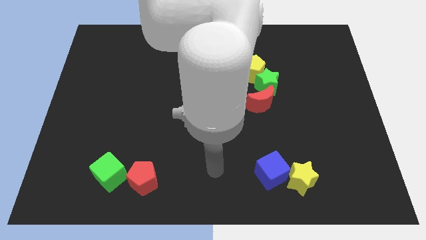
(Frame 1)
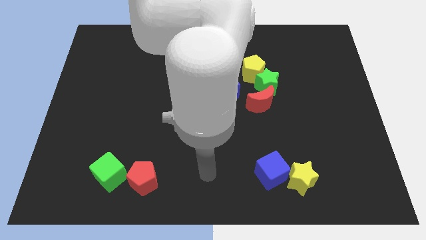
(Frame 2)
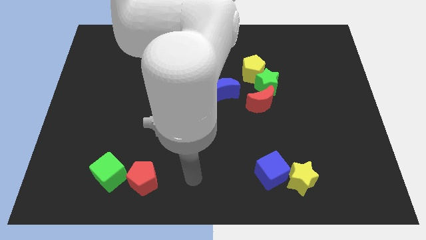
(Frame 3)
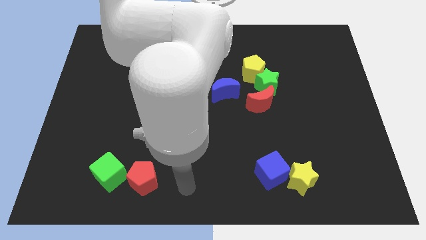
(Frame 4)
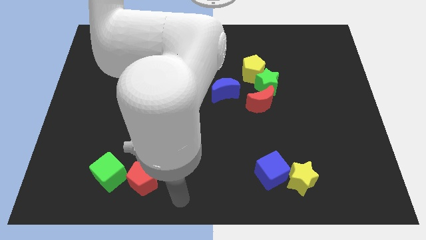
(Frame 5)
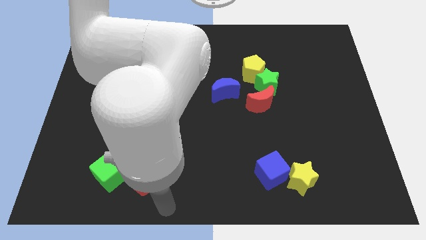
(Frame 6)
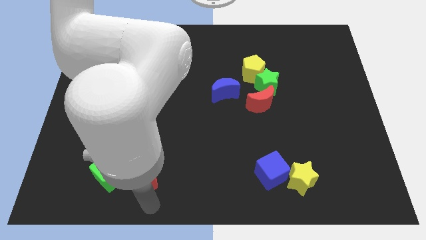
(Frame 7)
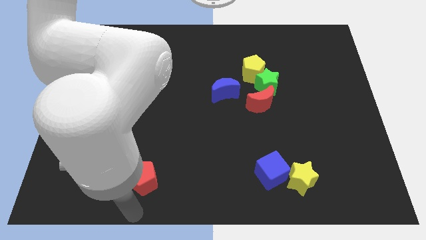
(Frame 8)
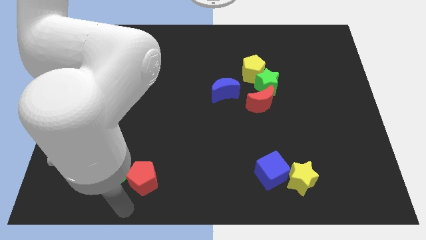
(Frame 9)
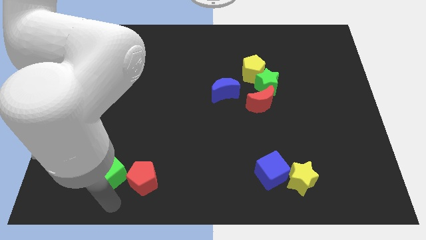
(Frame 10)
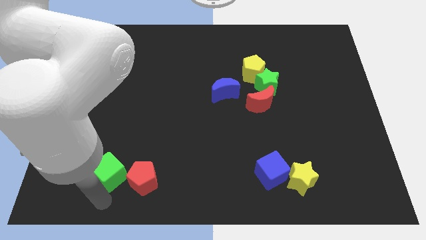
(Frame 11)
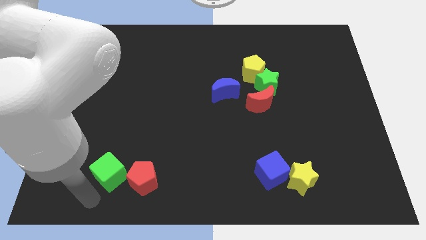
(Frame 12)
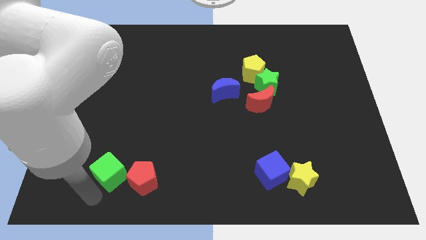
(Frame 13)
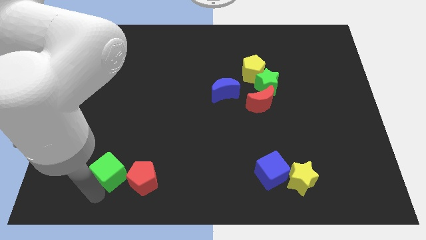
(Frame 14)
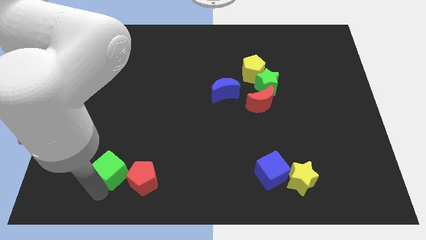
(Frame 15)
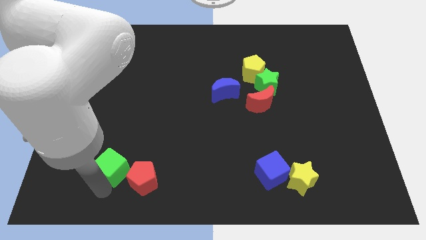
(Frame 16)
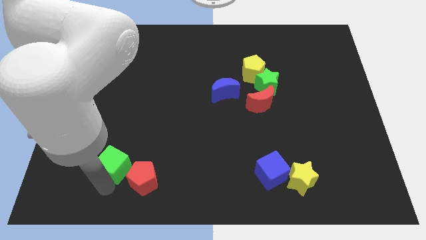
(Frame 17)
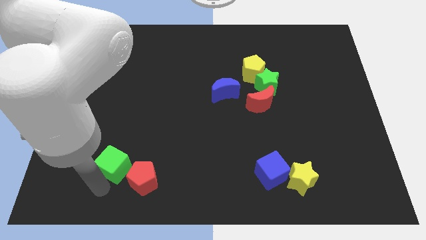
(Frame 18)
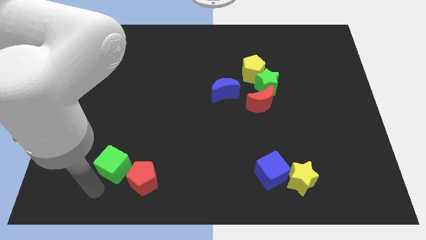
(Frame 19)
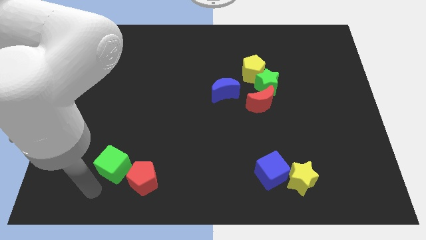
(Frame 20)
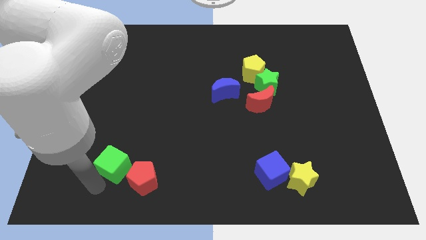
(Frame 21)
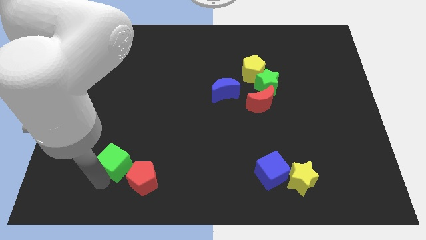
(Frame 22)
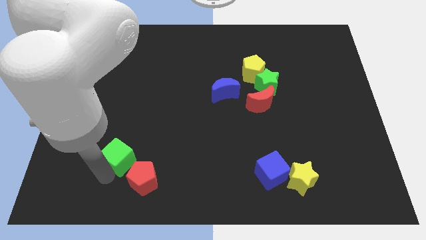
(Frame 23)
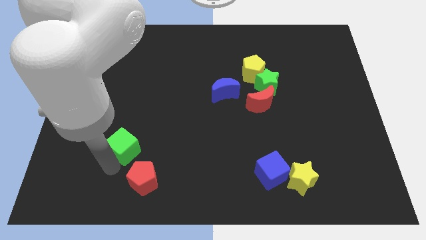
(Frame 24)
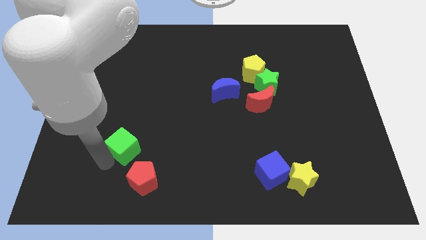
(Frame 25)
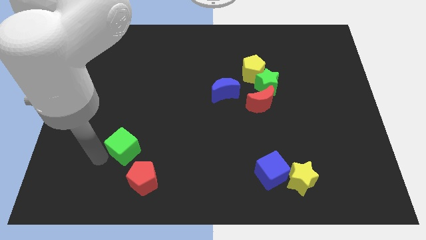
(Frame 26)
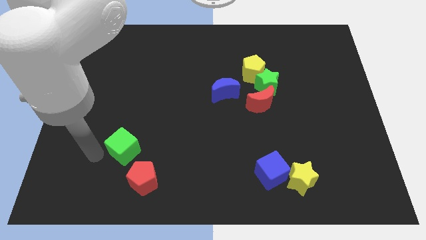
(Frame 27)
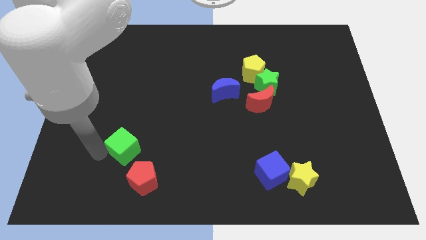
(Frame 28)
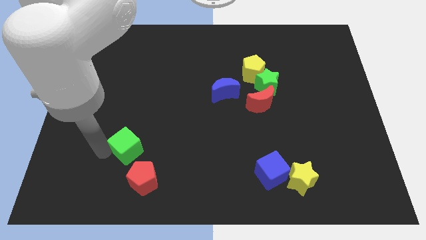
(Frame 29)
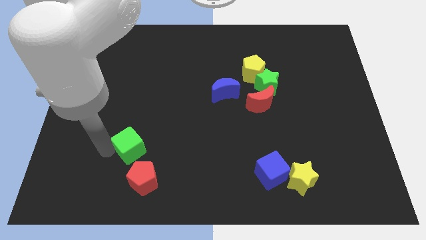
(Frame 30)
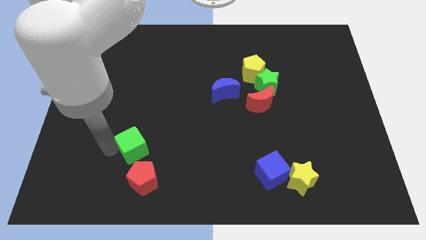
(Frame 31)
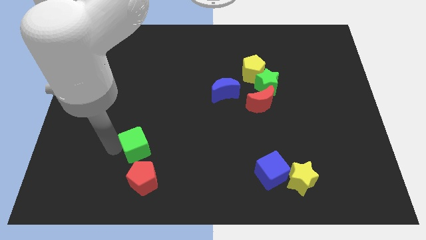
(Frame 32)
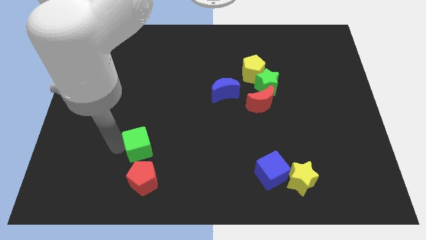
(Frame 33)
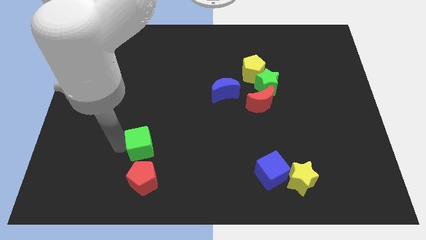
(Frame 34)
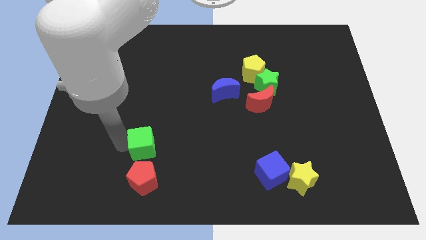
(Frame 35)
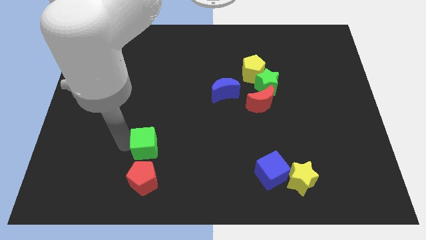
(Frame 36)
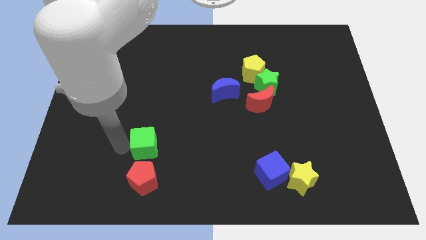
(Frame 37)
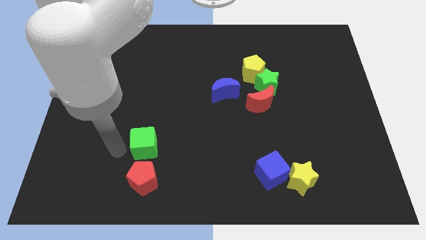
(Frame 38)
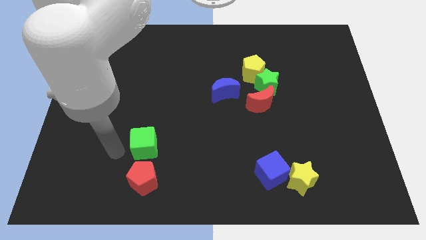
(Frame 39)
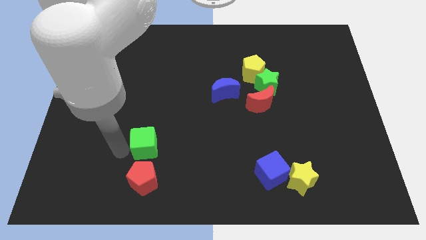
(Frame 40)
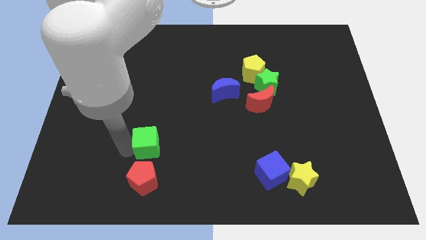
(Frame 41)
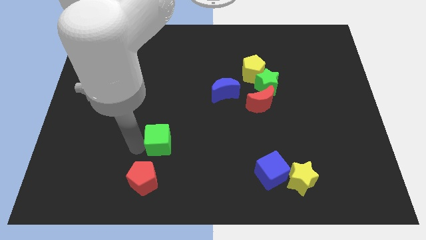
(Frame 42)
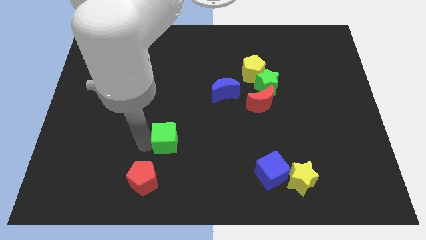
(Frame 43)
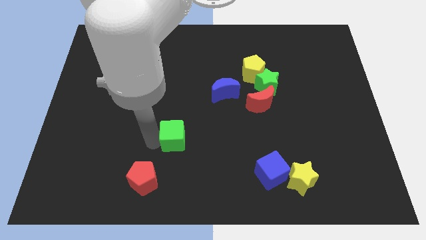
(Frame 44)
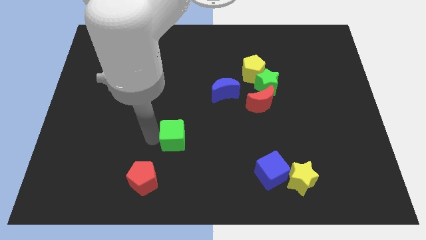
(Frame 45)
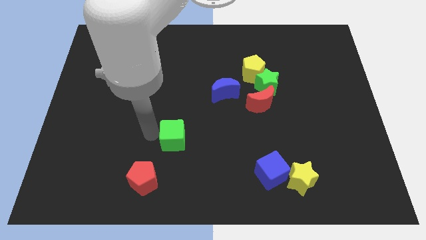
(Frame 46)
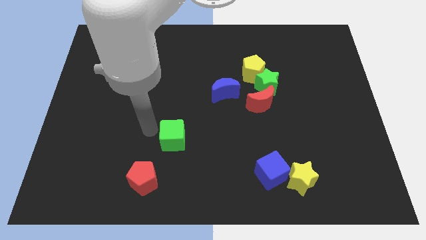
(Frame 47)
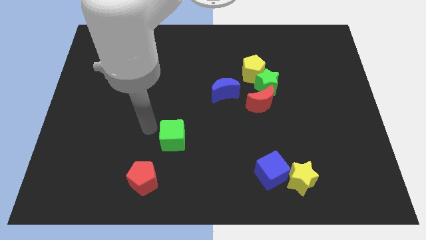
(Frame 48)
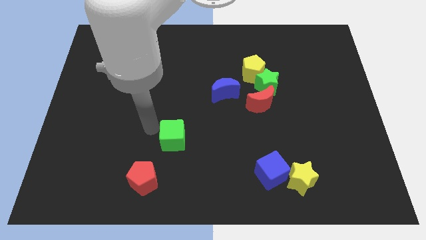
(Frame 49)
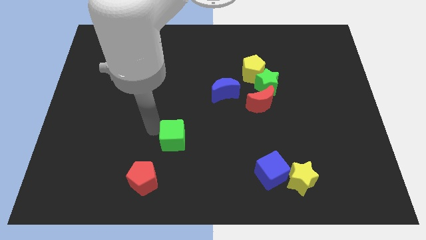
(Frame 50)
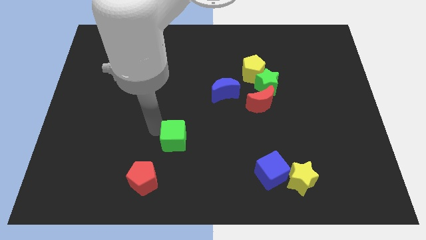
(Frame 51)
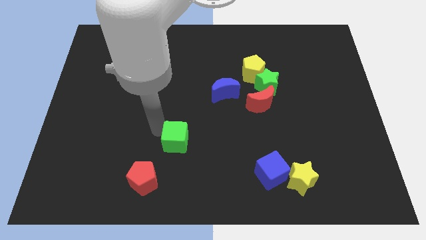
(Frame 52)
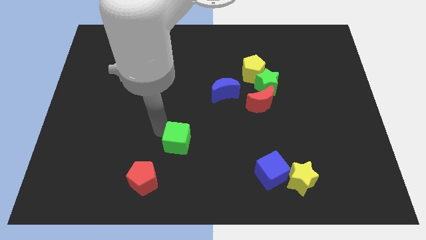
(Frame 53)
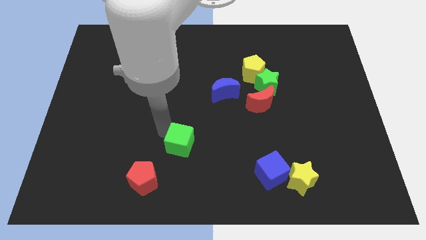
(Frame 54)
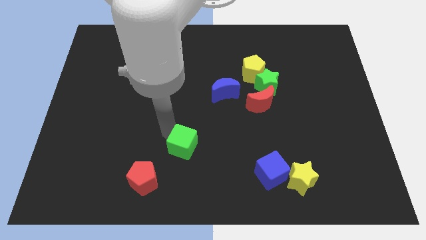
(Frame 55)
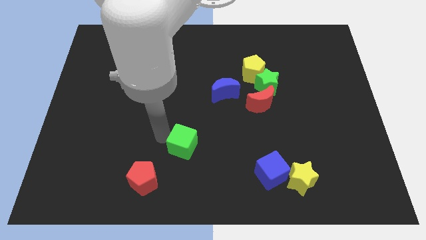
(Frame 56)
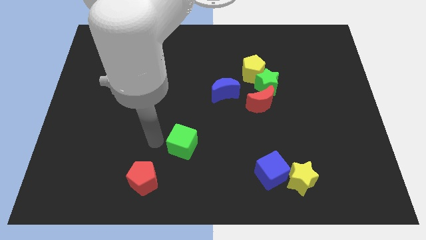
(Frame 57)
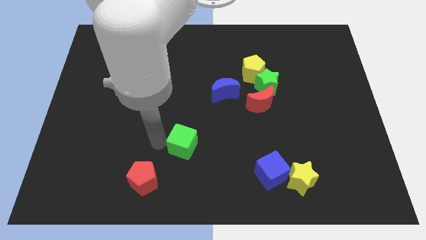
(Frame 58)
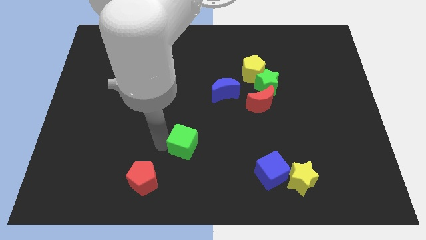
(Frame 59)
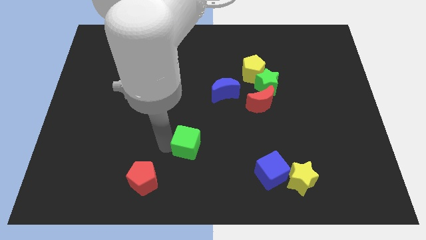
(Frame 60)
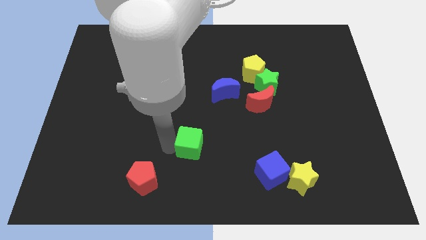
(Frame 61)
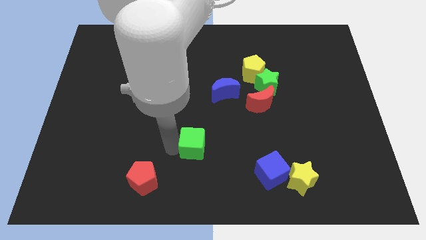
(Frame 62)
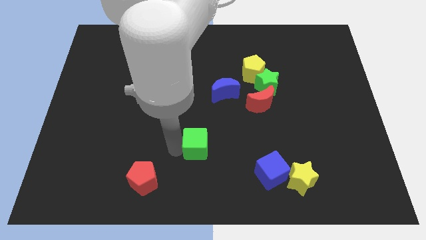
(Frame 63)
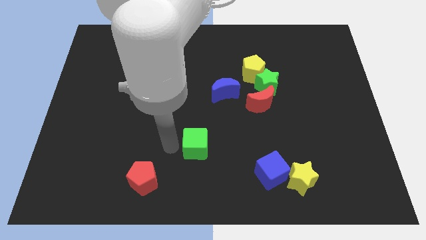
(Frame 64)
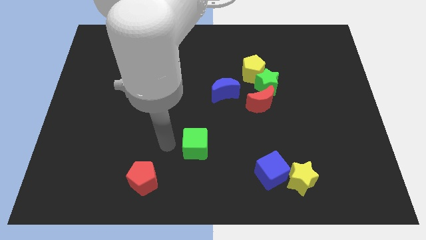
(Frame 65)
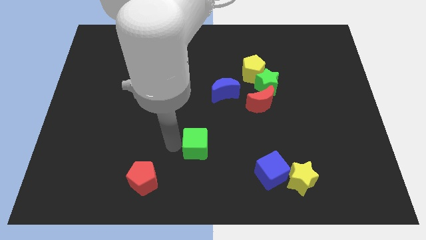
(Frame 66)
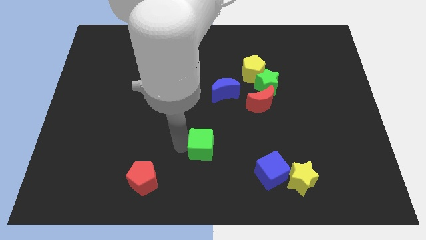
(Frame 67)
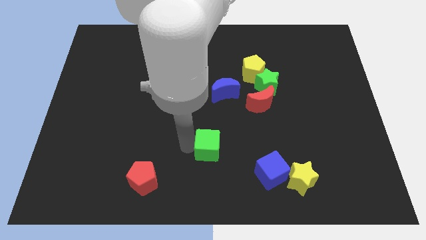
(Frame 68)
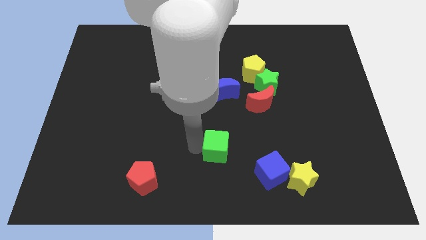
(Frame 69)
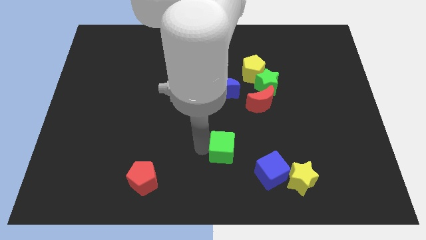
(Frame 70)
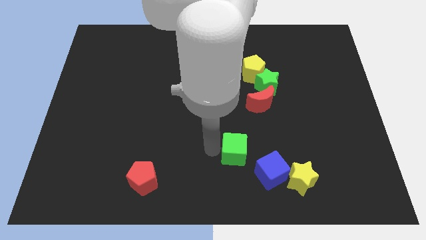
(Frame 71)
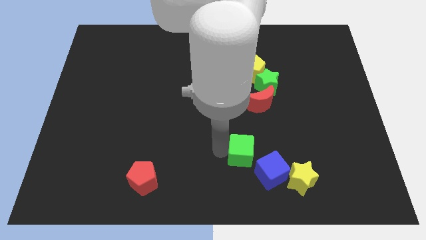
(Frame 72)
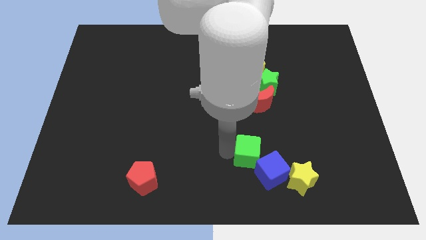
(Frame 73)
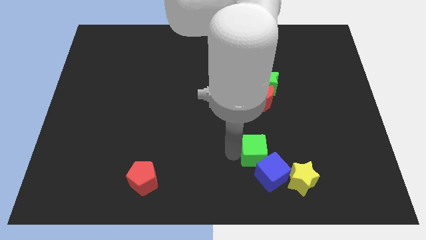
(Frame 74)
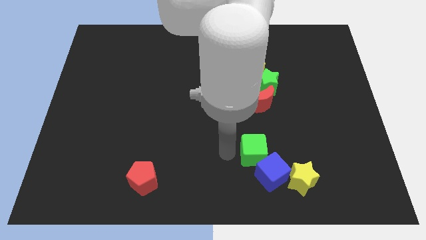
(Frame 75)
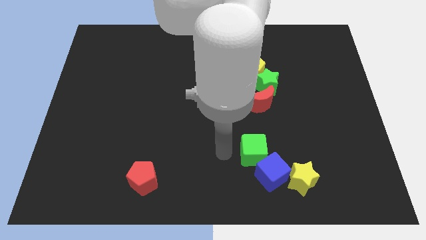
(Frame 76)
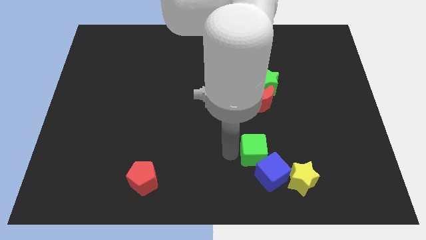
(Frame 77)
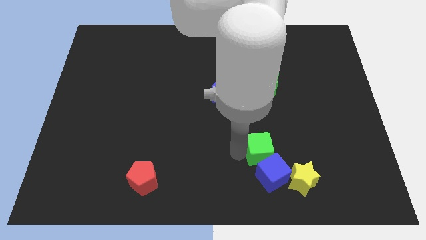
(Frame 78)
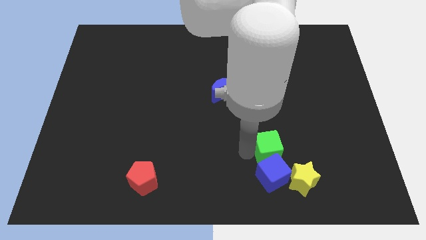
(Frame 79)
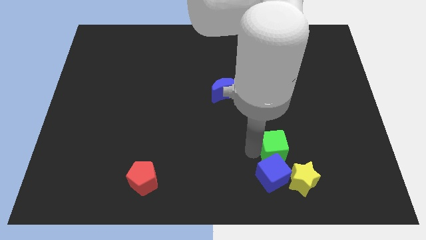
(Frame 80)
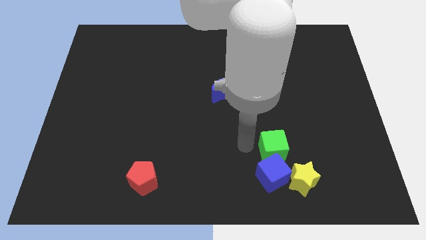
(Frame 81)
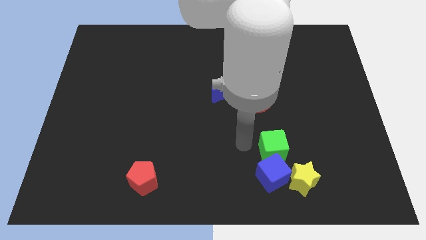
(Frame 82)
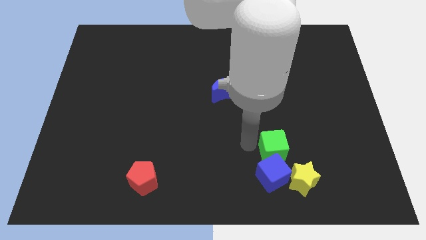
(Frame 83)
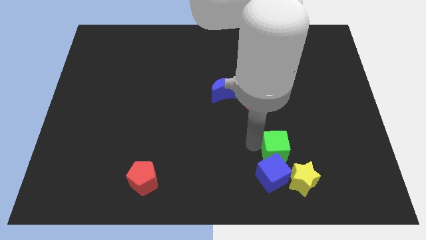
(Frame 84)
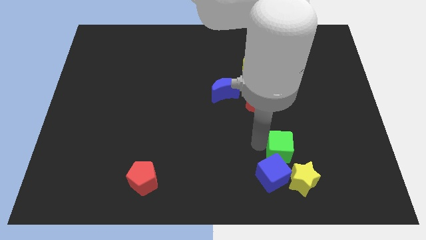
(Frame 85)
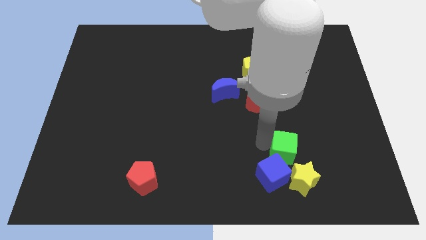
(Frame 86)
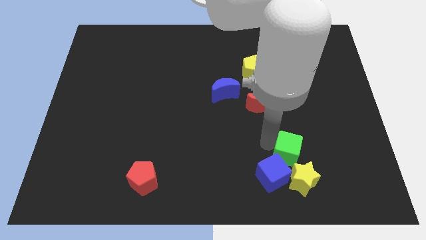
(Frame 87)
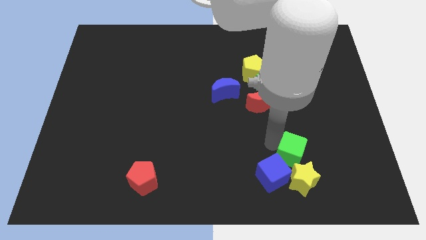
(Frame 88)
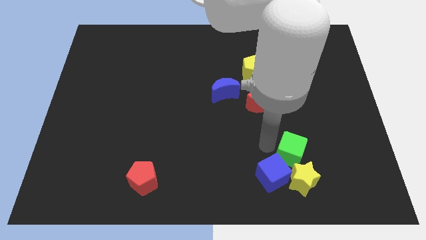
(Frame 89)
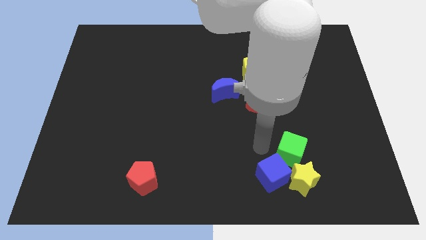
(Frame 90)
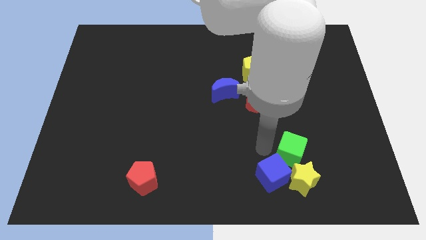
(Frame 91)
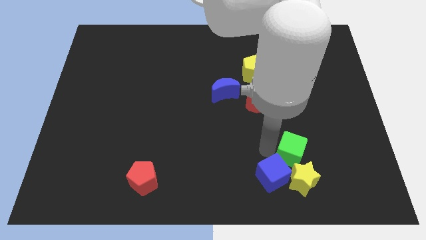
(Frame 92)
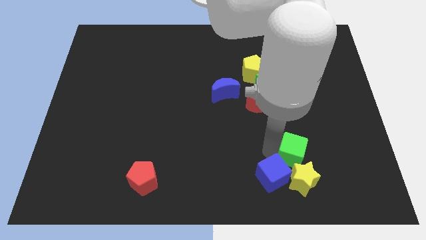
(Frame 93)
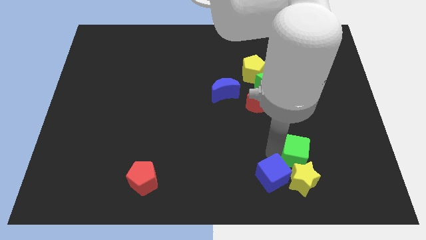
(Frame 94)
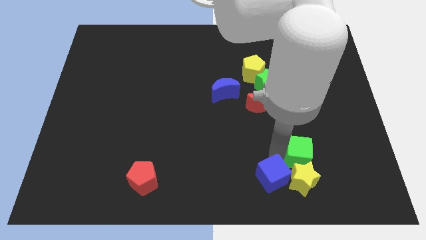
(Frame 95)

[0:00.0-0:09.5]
push the green cube to the top right side of the yellow star
